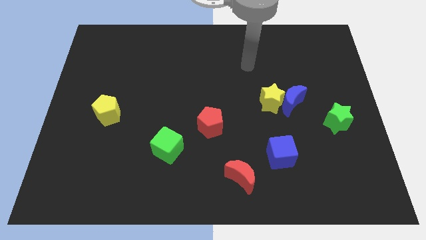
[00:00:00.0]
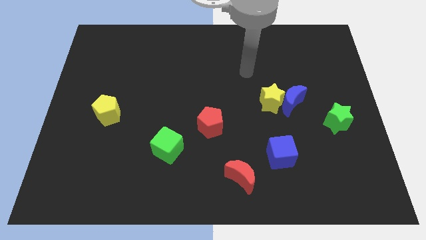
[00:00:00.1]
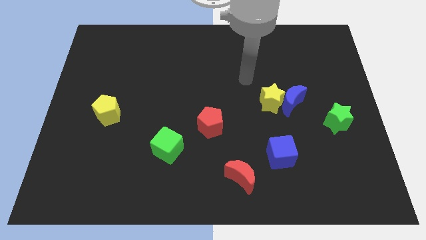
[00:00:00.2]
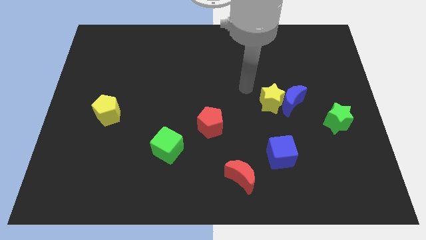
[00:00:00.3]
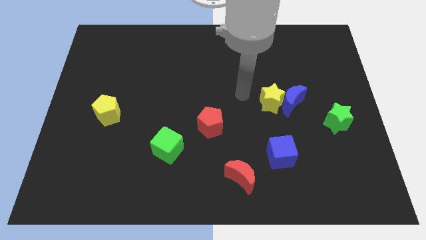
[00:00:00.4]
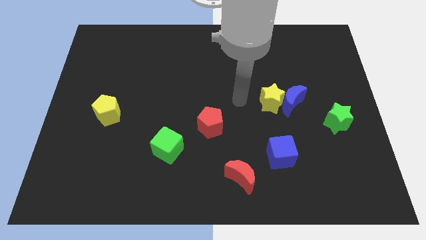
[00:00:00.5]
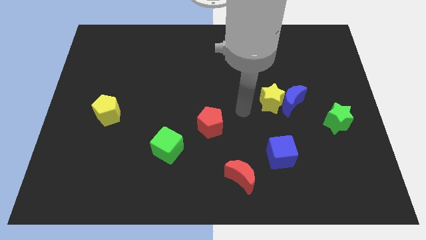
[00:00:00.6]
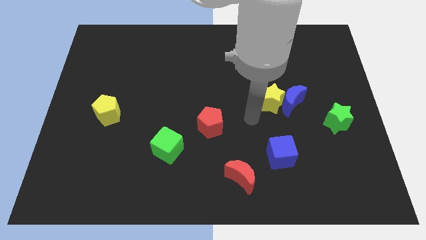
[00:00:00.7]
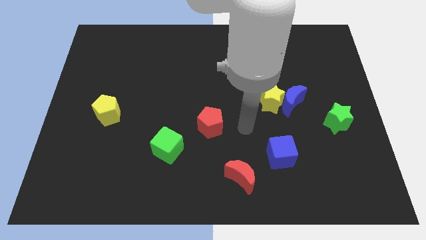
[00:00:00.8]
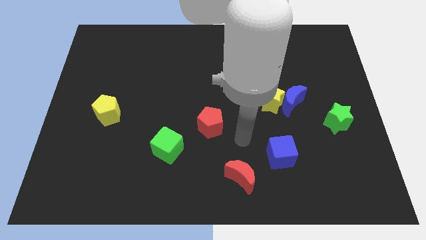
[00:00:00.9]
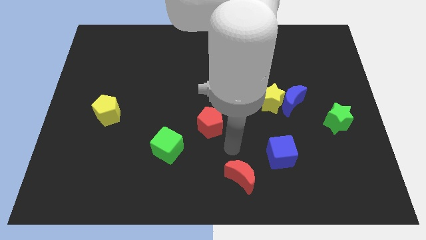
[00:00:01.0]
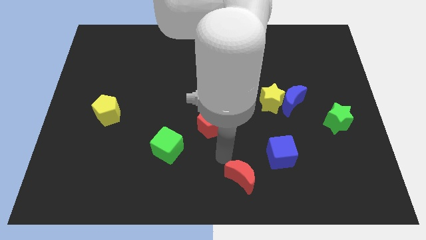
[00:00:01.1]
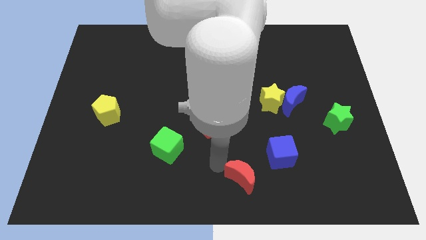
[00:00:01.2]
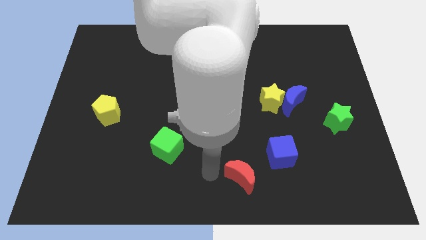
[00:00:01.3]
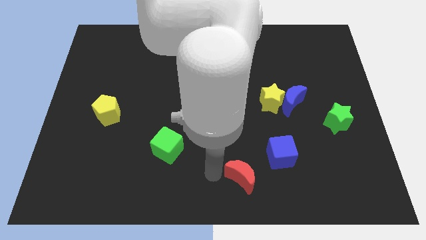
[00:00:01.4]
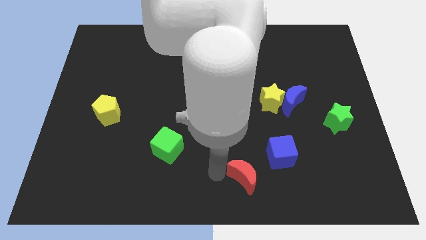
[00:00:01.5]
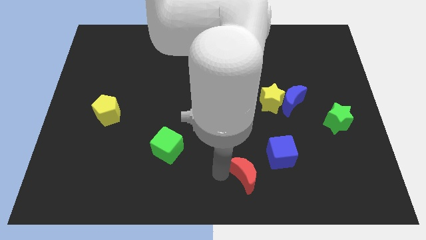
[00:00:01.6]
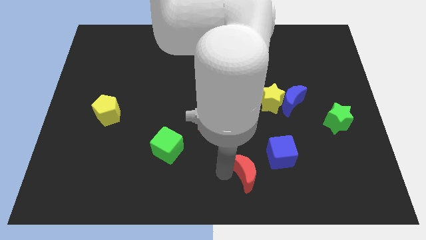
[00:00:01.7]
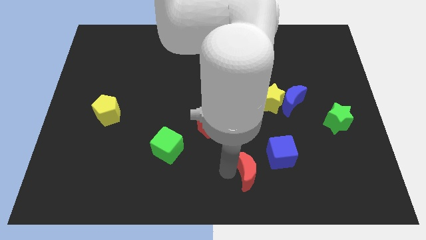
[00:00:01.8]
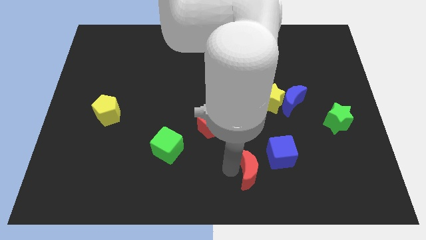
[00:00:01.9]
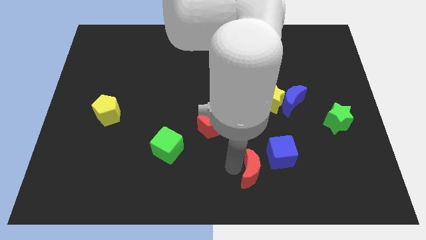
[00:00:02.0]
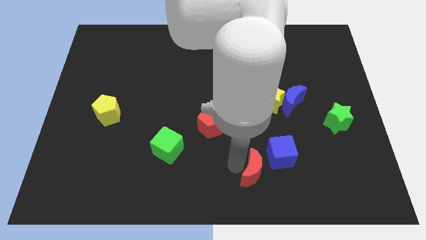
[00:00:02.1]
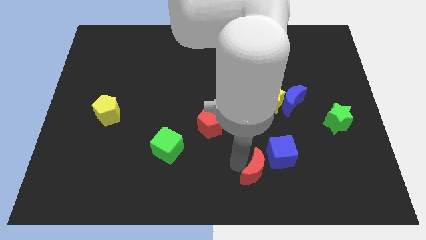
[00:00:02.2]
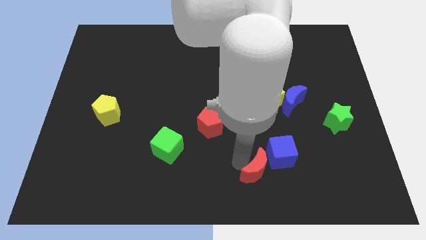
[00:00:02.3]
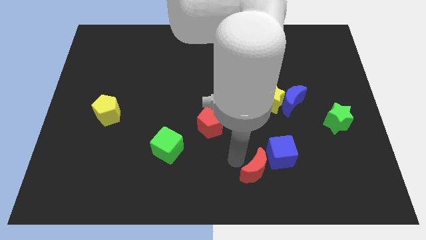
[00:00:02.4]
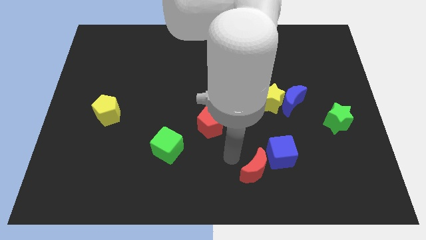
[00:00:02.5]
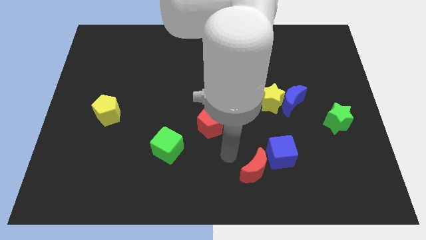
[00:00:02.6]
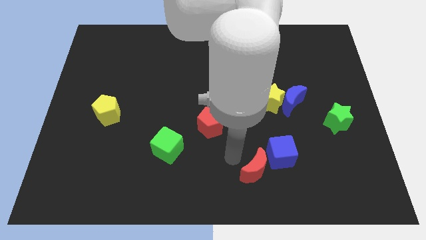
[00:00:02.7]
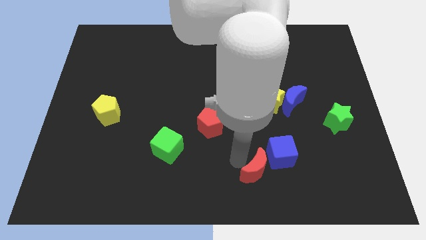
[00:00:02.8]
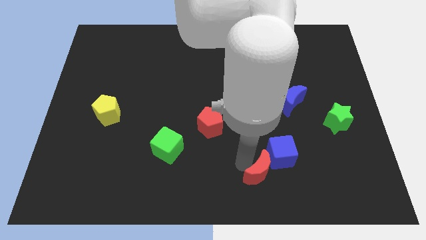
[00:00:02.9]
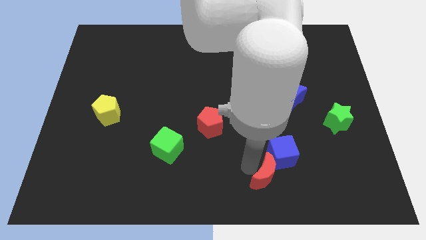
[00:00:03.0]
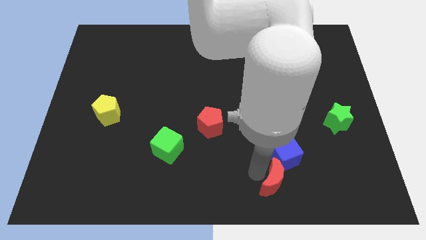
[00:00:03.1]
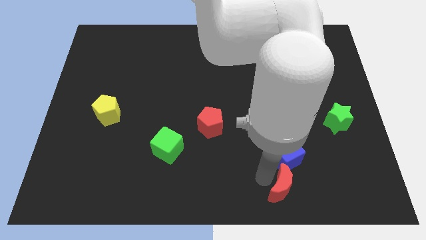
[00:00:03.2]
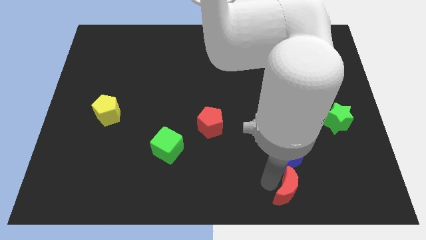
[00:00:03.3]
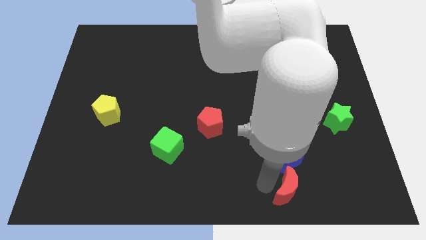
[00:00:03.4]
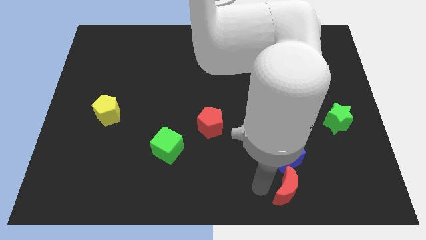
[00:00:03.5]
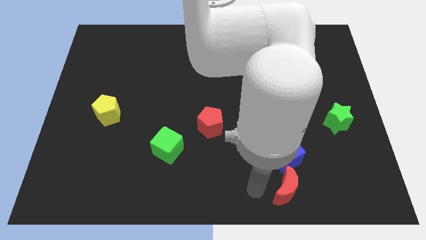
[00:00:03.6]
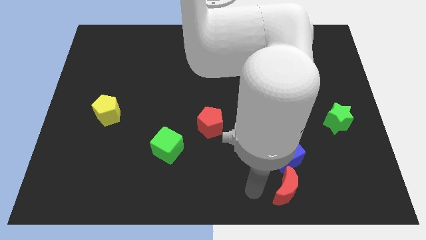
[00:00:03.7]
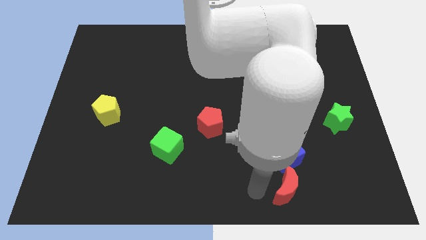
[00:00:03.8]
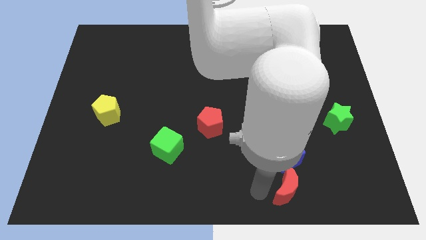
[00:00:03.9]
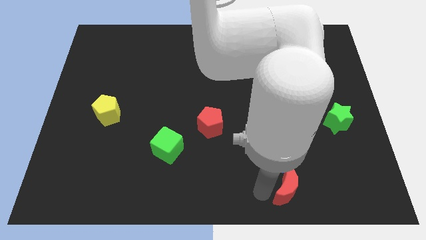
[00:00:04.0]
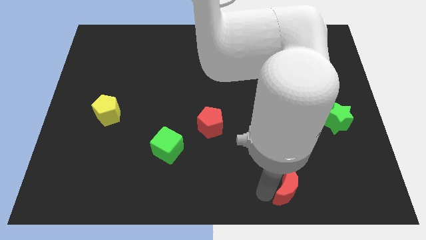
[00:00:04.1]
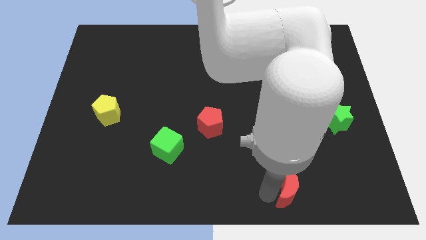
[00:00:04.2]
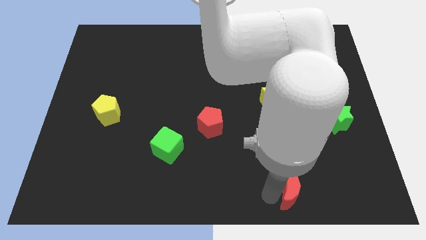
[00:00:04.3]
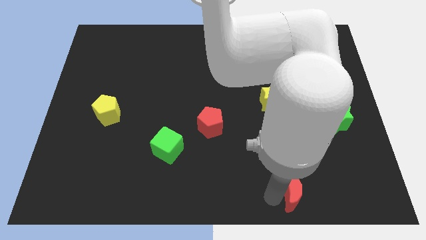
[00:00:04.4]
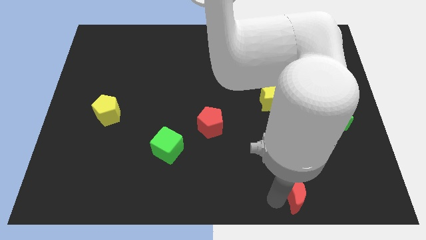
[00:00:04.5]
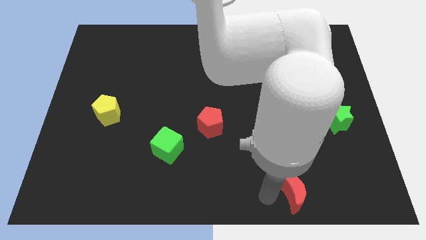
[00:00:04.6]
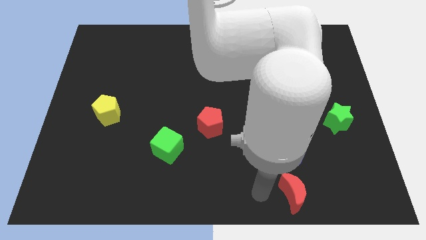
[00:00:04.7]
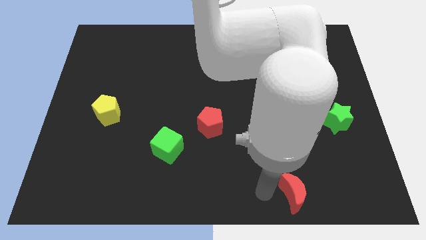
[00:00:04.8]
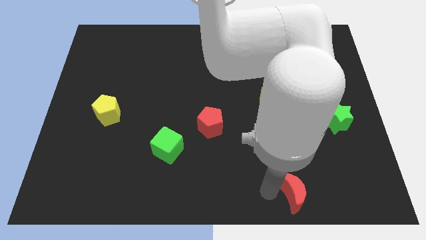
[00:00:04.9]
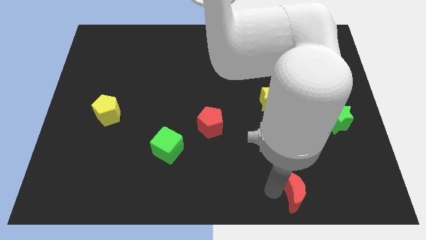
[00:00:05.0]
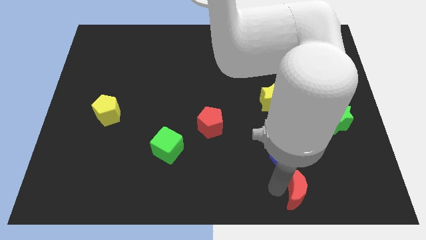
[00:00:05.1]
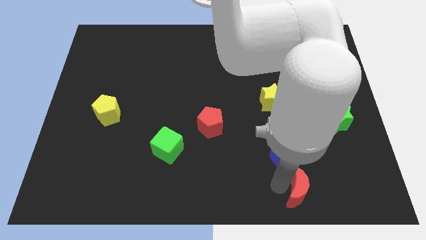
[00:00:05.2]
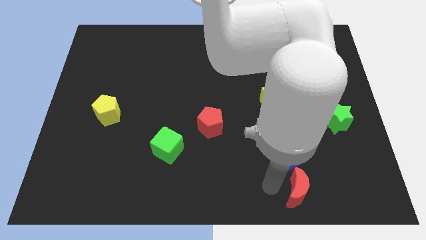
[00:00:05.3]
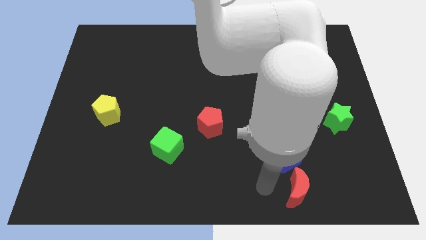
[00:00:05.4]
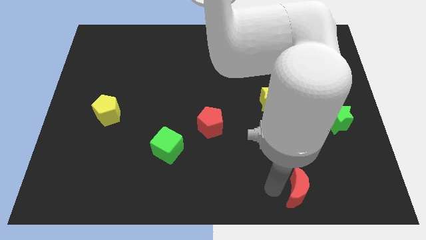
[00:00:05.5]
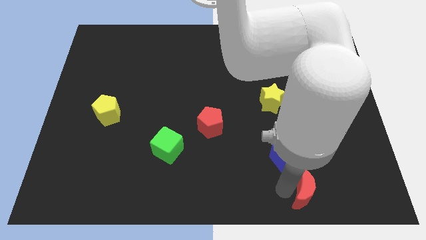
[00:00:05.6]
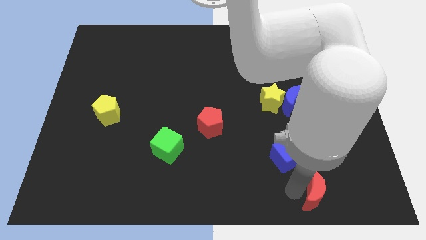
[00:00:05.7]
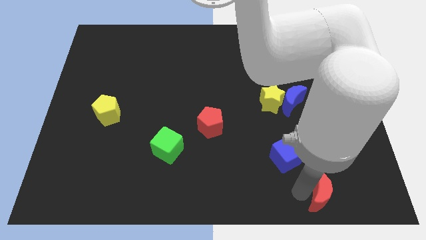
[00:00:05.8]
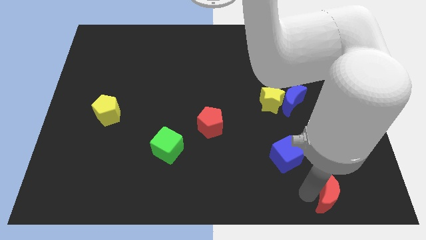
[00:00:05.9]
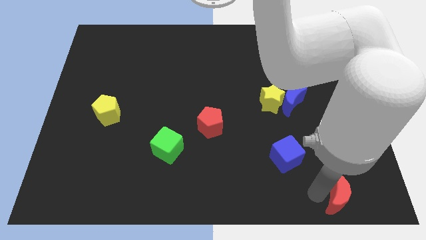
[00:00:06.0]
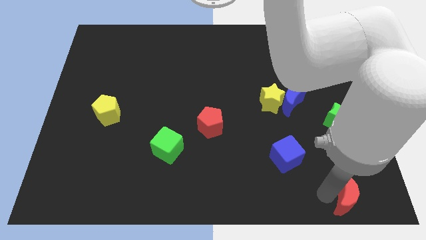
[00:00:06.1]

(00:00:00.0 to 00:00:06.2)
put the red moon to the bottom right of the board
